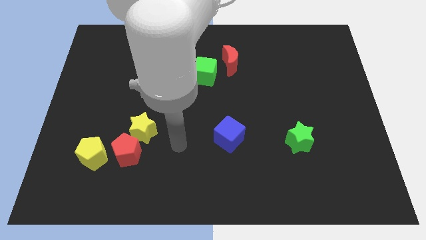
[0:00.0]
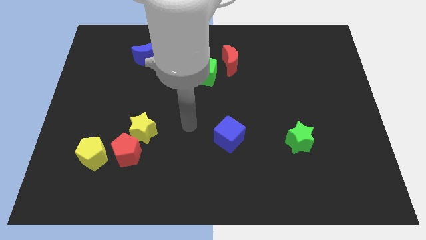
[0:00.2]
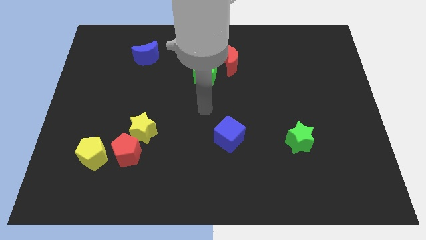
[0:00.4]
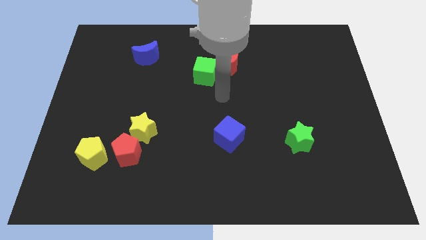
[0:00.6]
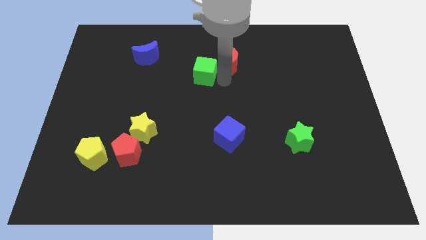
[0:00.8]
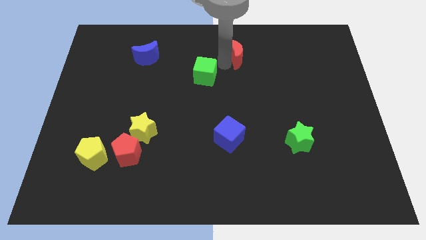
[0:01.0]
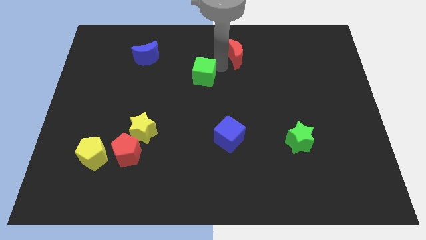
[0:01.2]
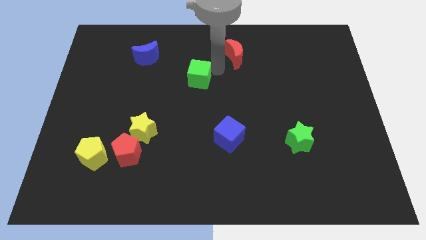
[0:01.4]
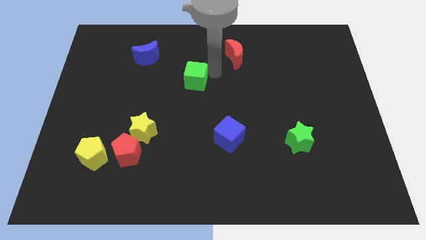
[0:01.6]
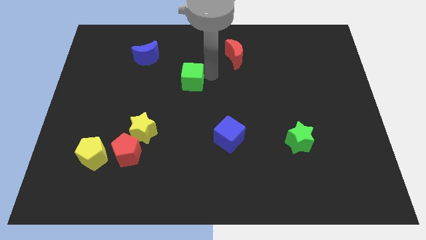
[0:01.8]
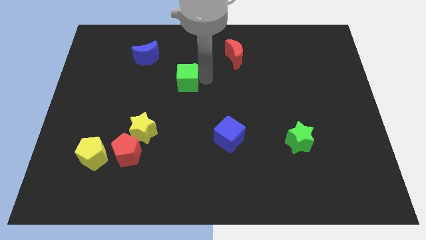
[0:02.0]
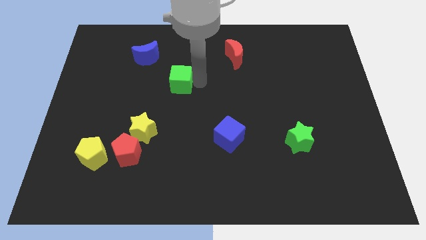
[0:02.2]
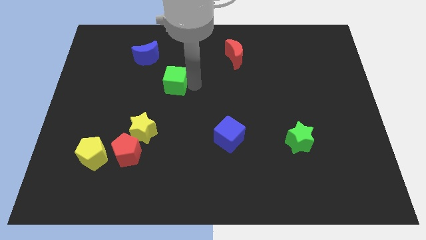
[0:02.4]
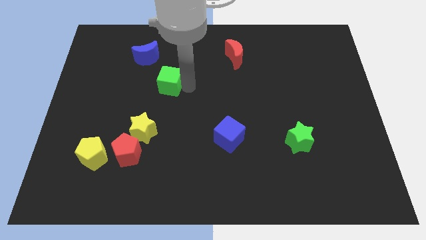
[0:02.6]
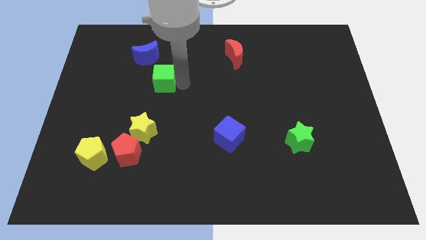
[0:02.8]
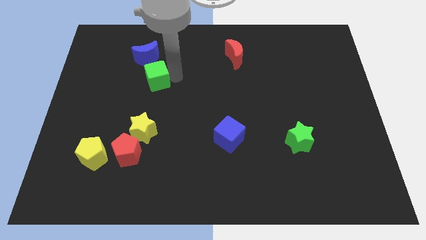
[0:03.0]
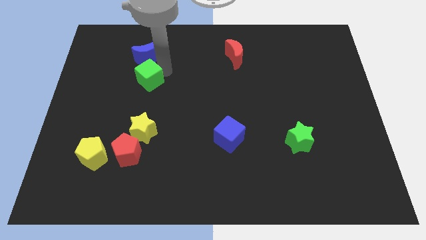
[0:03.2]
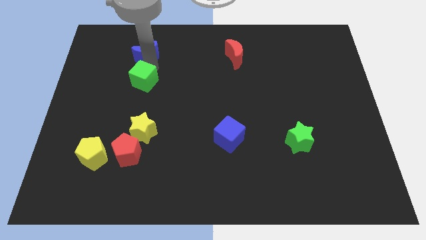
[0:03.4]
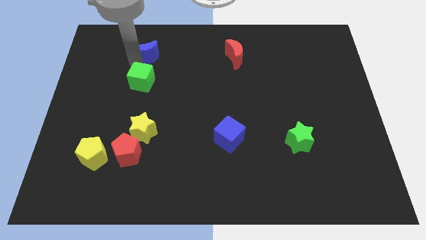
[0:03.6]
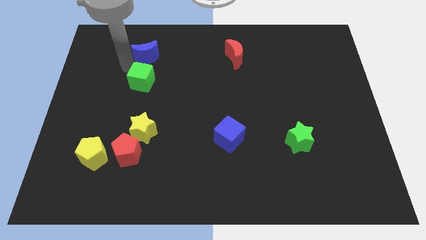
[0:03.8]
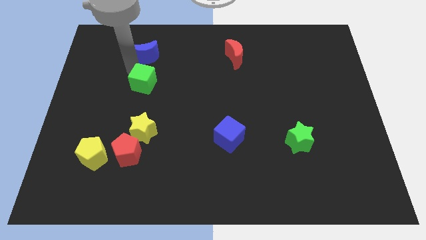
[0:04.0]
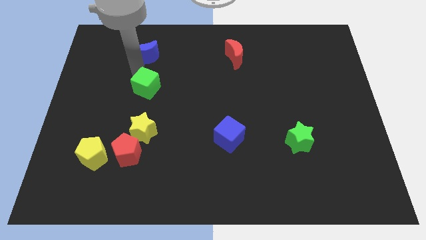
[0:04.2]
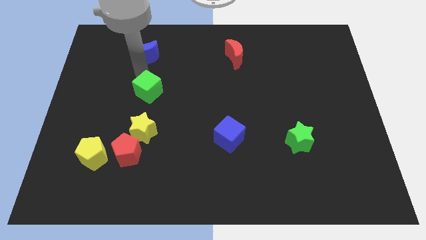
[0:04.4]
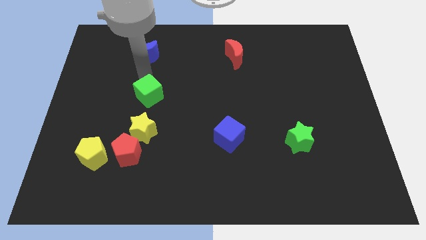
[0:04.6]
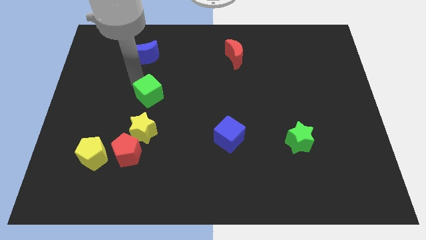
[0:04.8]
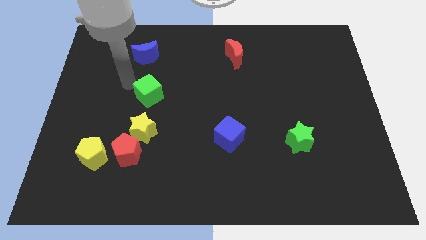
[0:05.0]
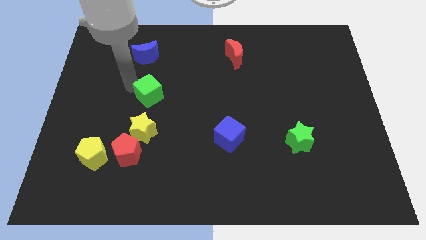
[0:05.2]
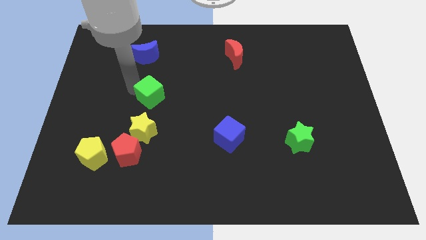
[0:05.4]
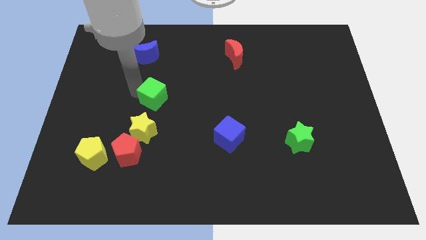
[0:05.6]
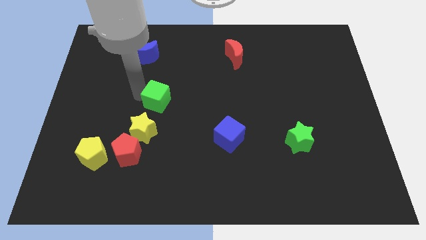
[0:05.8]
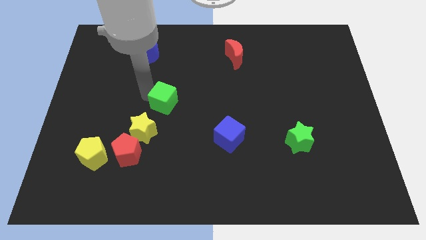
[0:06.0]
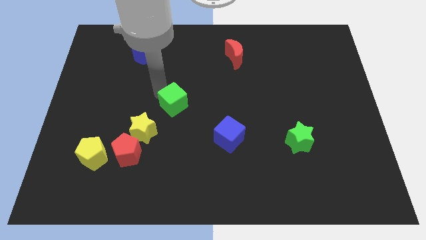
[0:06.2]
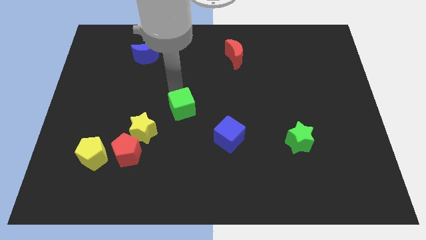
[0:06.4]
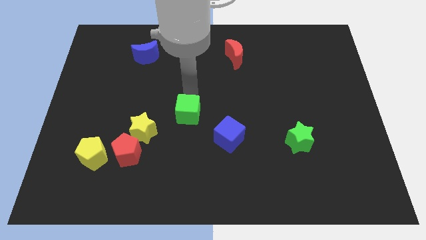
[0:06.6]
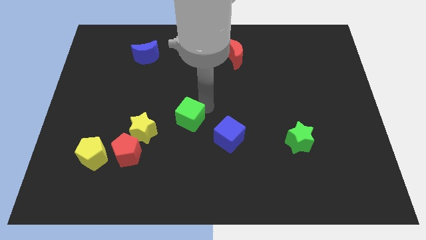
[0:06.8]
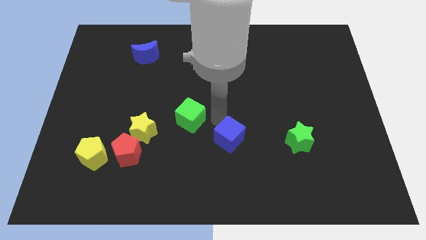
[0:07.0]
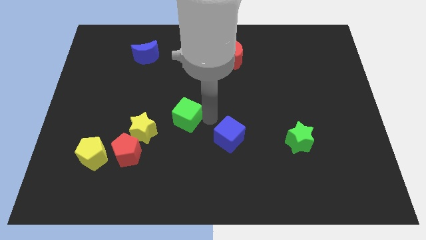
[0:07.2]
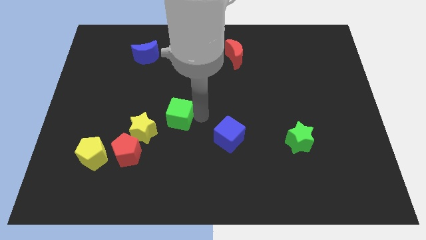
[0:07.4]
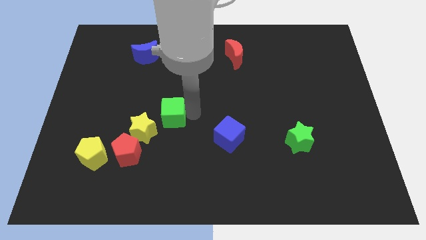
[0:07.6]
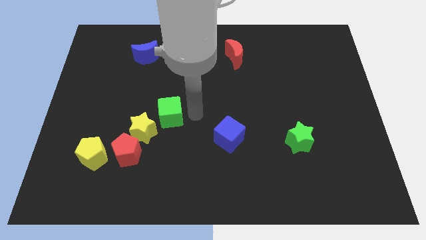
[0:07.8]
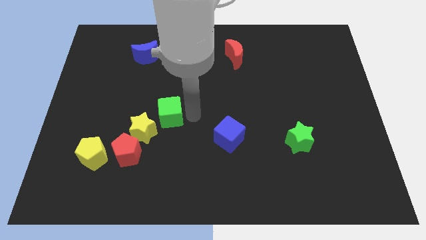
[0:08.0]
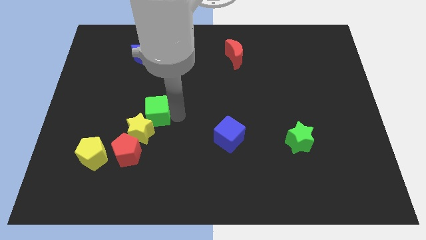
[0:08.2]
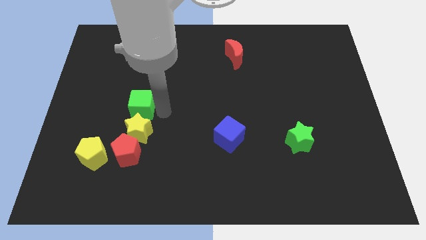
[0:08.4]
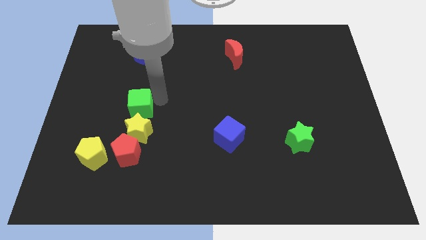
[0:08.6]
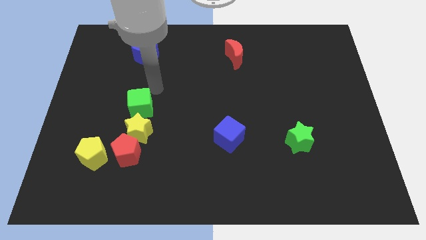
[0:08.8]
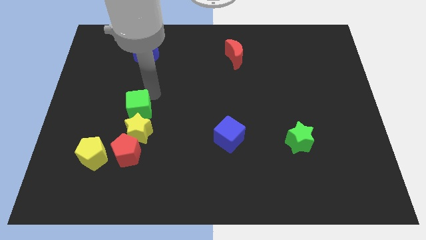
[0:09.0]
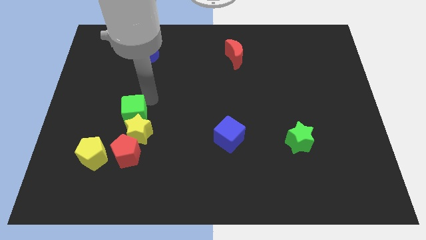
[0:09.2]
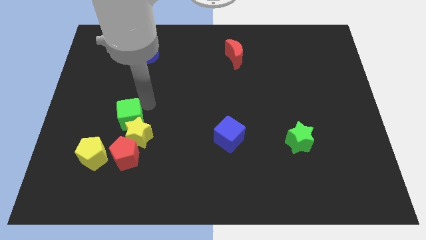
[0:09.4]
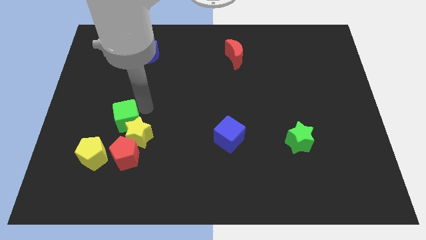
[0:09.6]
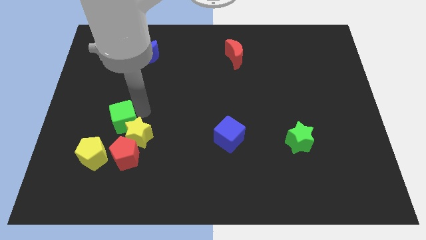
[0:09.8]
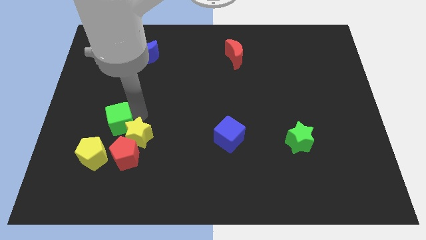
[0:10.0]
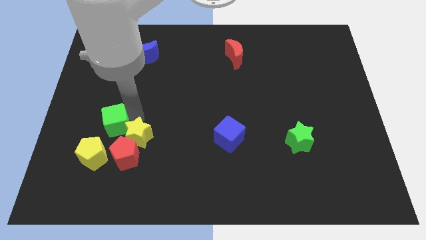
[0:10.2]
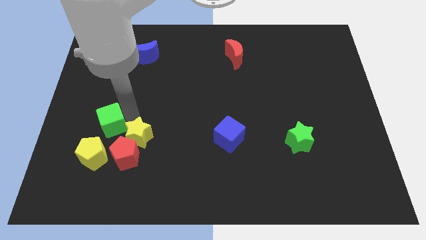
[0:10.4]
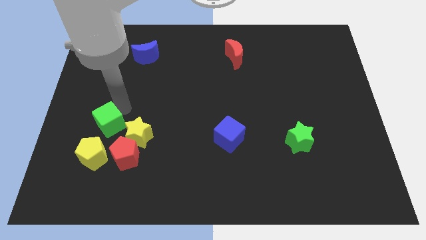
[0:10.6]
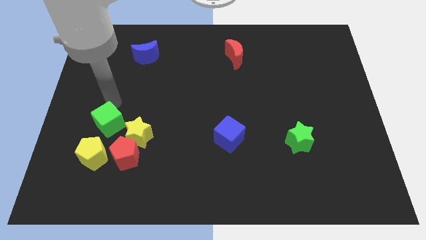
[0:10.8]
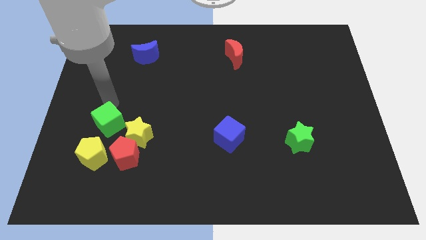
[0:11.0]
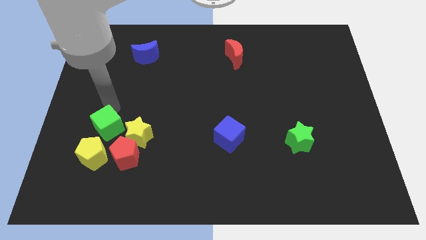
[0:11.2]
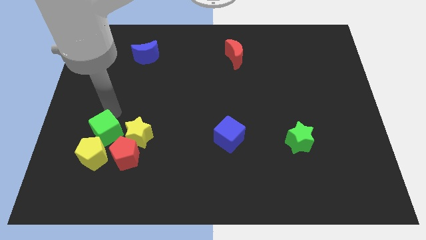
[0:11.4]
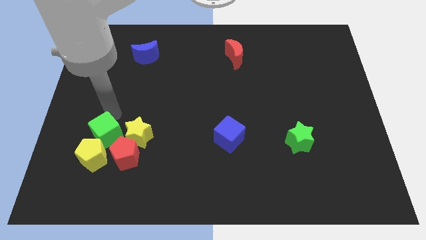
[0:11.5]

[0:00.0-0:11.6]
move the green cube next to the yellow pentagon

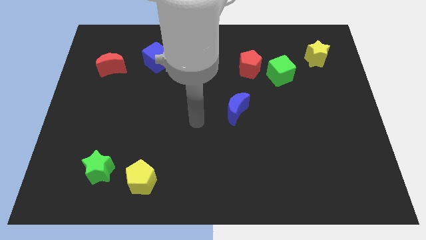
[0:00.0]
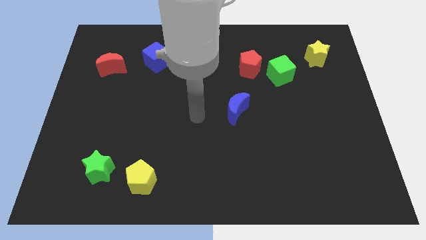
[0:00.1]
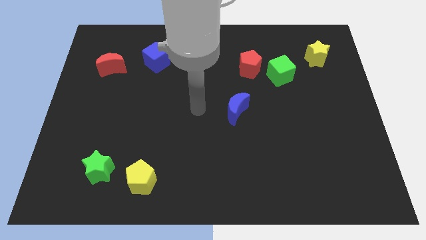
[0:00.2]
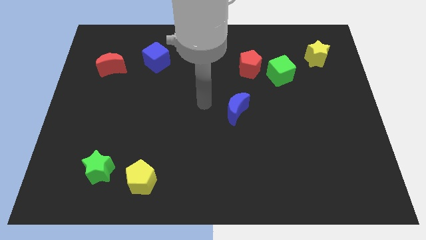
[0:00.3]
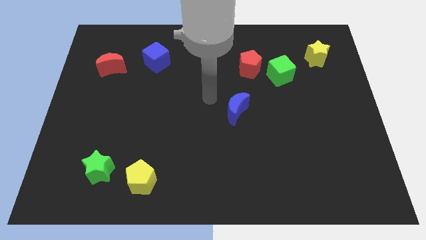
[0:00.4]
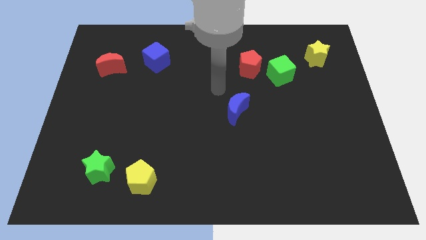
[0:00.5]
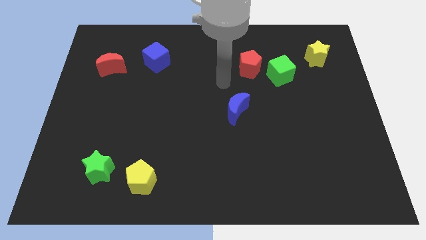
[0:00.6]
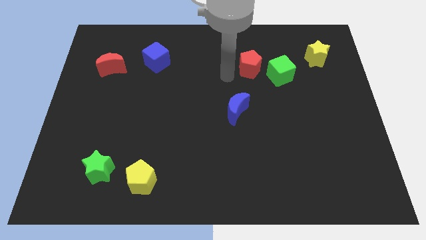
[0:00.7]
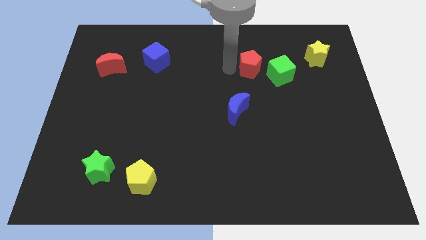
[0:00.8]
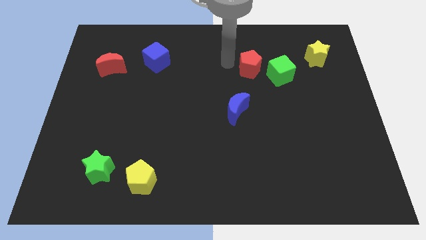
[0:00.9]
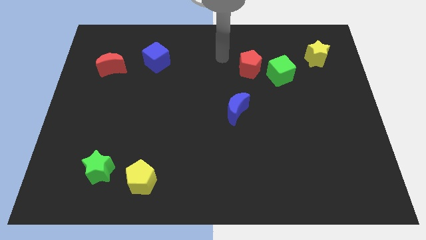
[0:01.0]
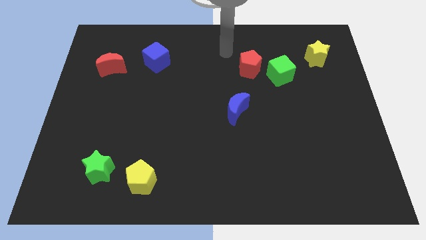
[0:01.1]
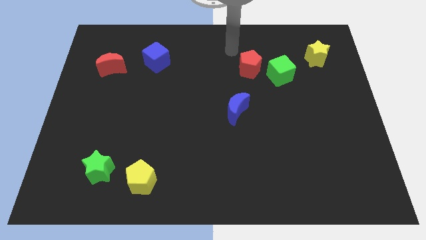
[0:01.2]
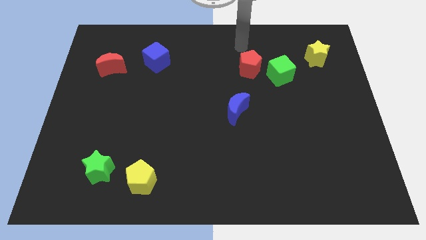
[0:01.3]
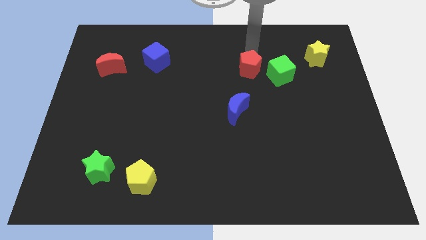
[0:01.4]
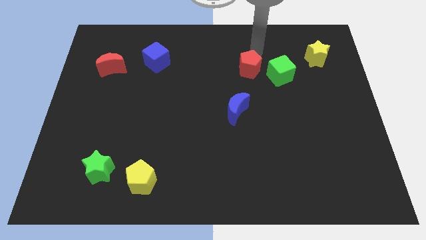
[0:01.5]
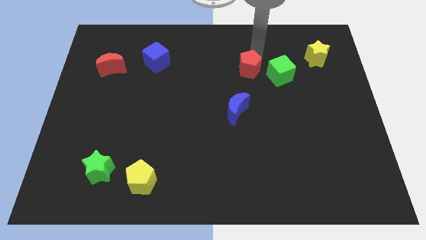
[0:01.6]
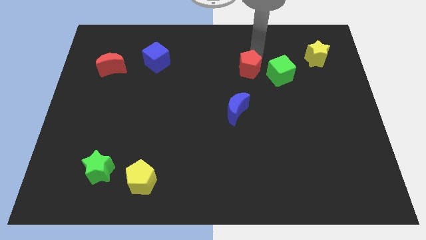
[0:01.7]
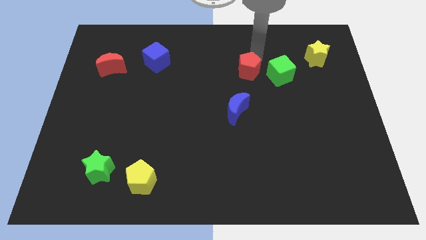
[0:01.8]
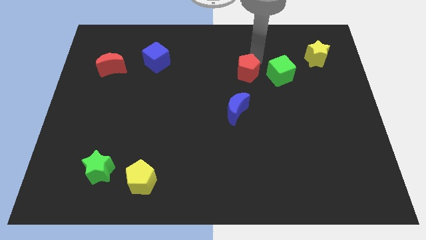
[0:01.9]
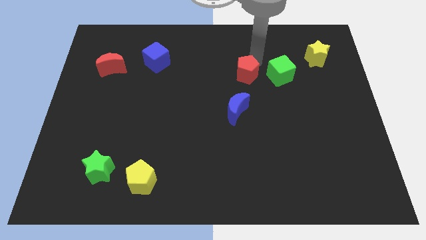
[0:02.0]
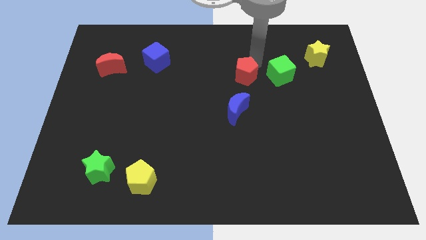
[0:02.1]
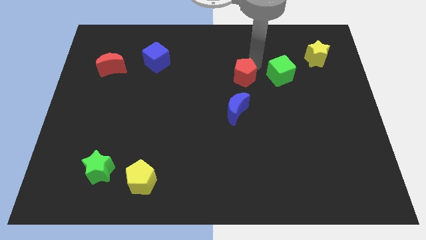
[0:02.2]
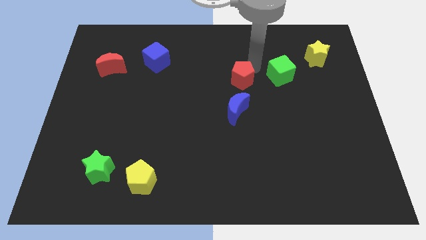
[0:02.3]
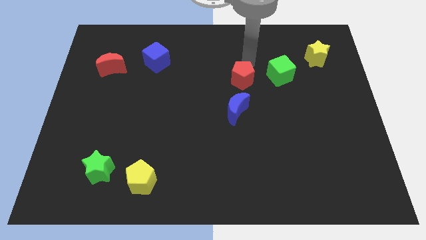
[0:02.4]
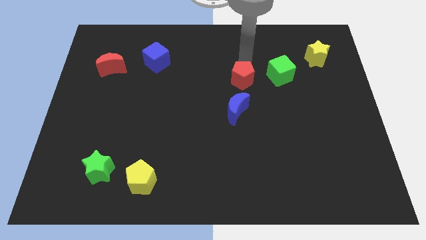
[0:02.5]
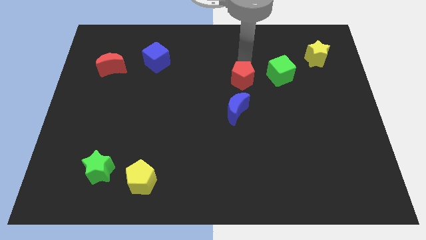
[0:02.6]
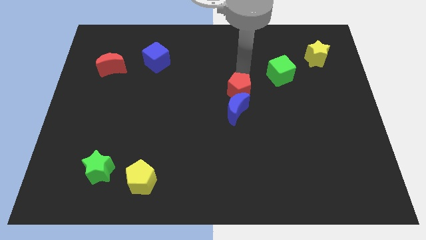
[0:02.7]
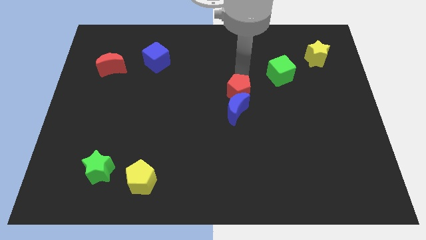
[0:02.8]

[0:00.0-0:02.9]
put the red pentagon next to the blue moon
